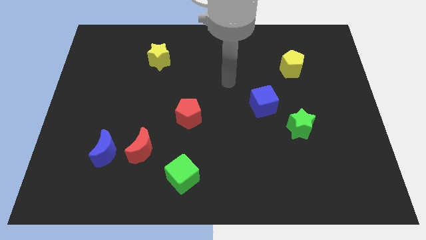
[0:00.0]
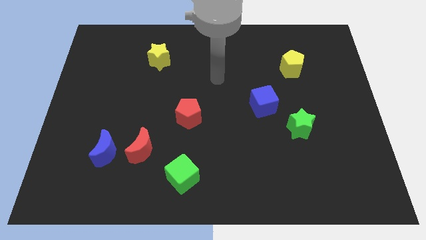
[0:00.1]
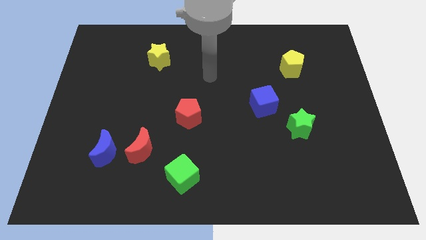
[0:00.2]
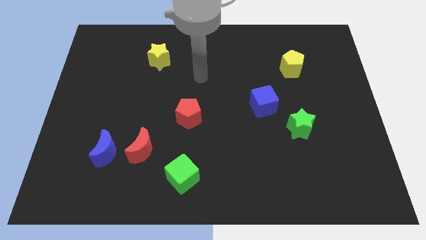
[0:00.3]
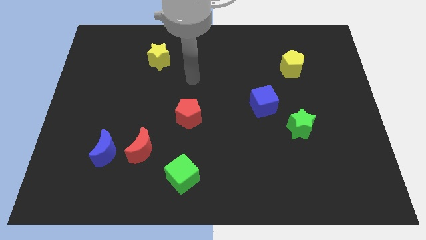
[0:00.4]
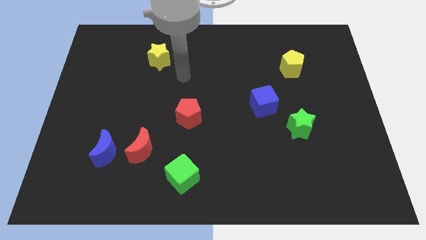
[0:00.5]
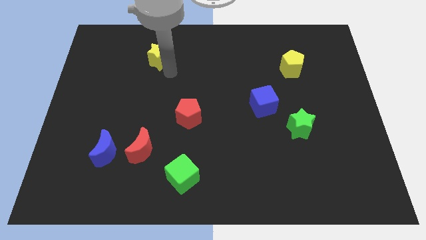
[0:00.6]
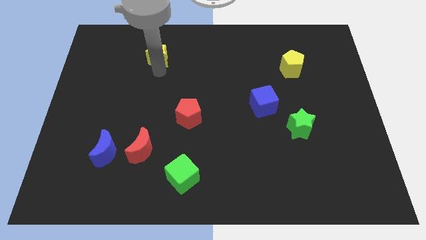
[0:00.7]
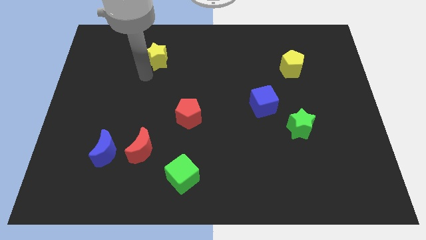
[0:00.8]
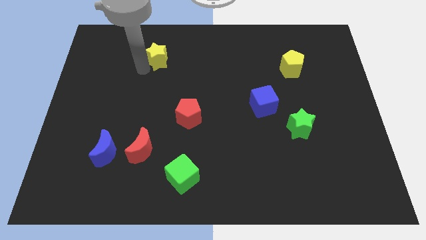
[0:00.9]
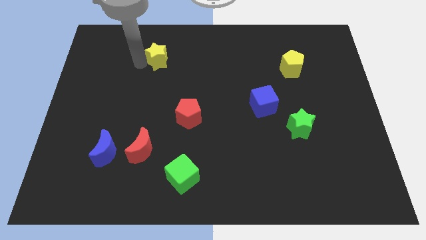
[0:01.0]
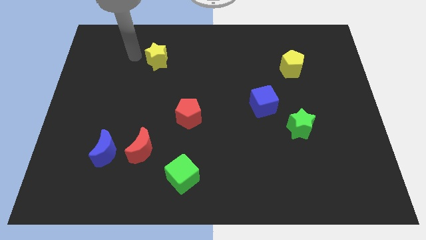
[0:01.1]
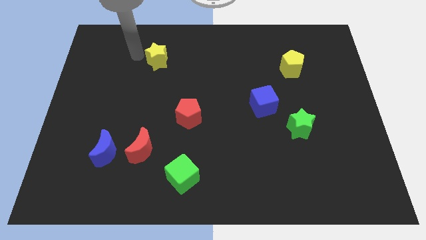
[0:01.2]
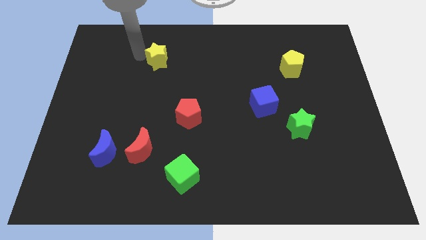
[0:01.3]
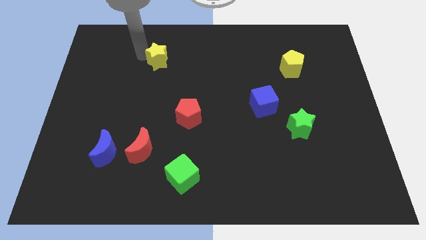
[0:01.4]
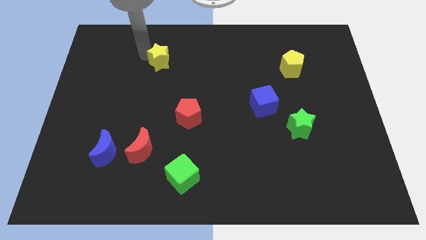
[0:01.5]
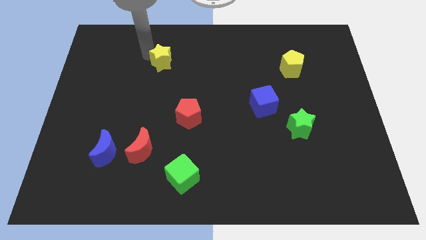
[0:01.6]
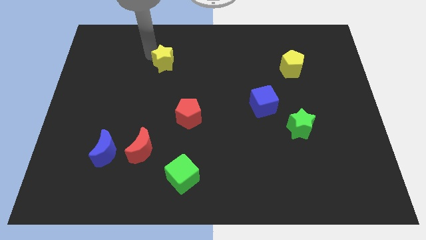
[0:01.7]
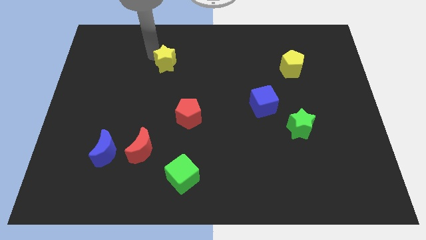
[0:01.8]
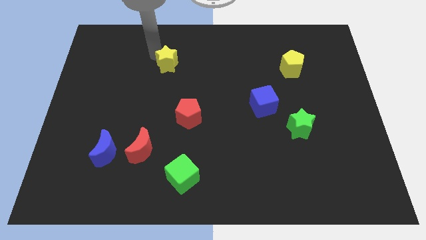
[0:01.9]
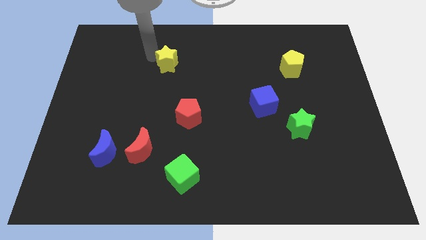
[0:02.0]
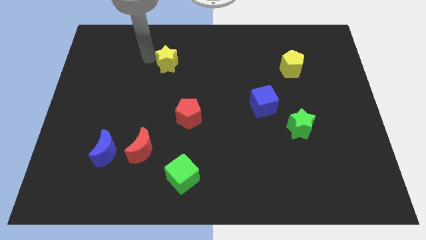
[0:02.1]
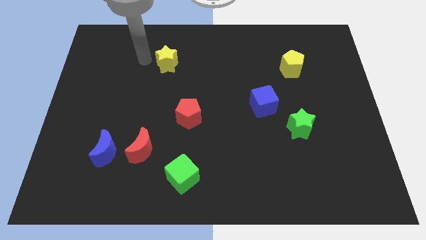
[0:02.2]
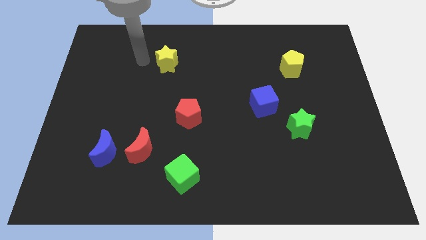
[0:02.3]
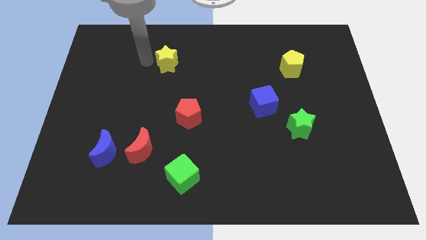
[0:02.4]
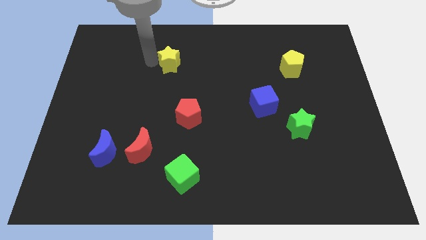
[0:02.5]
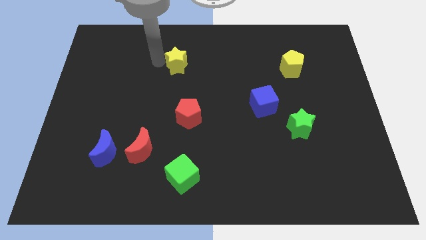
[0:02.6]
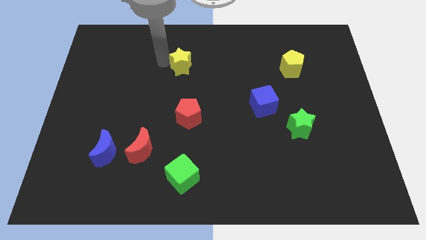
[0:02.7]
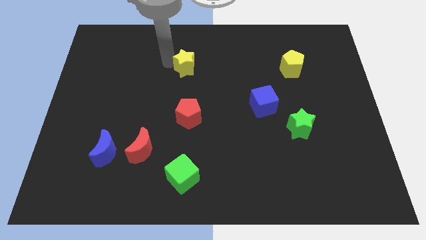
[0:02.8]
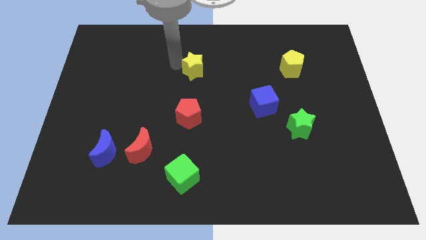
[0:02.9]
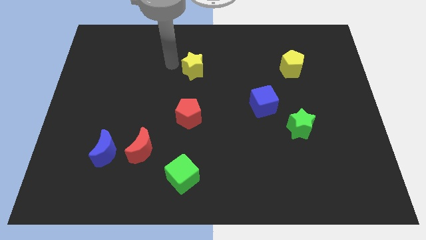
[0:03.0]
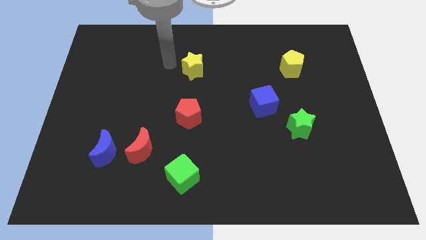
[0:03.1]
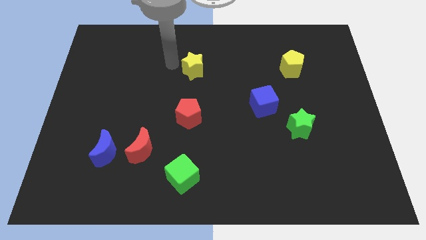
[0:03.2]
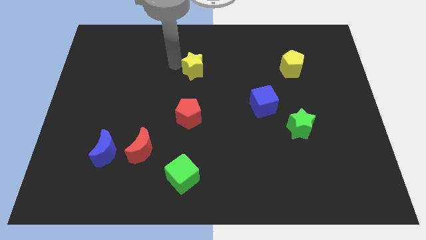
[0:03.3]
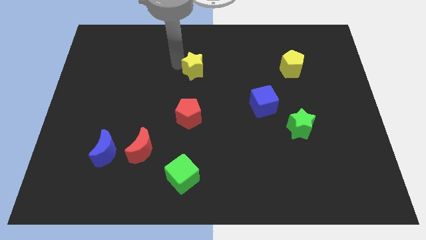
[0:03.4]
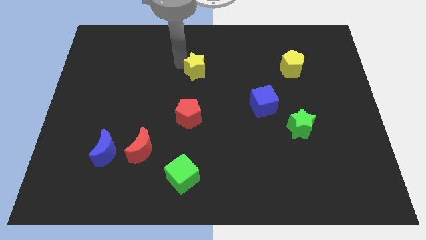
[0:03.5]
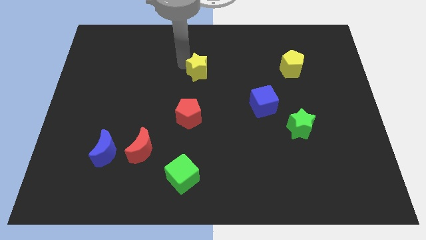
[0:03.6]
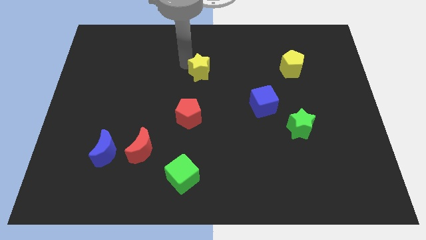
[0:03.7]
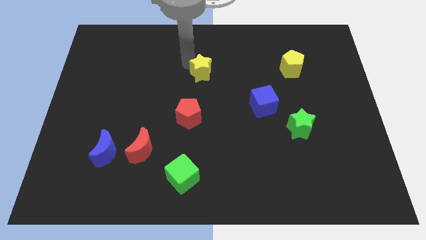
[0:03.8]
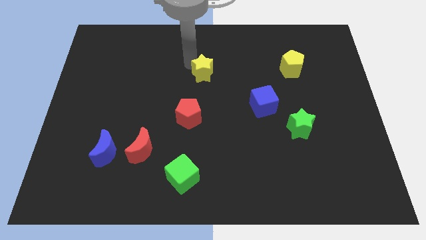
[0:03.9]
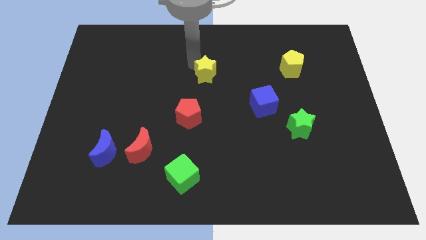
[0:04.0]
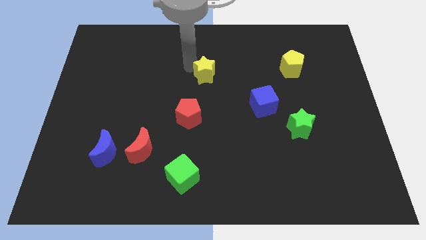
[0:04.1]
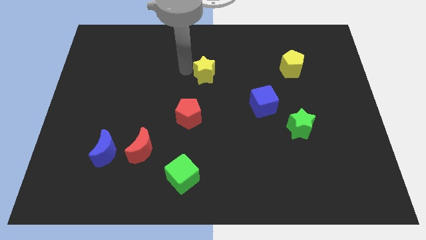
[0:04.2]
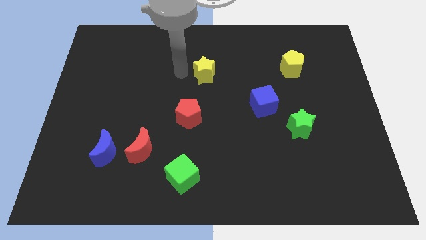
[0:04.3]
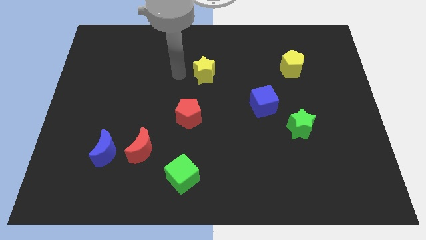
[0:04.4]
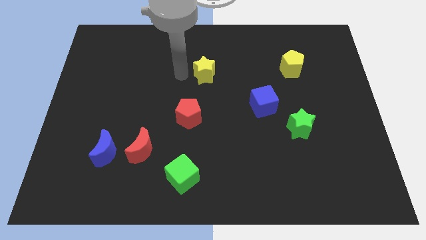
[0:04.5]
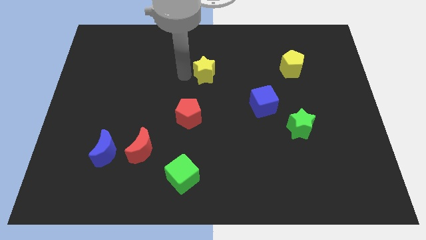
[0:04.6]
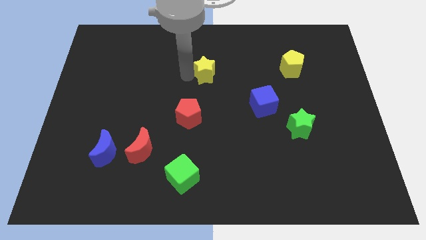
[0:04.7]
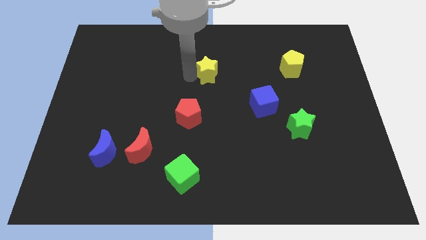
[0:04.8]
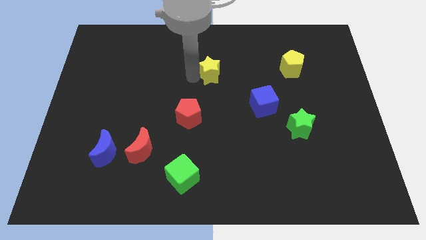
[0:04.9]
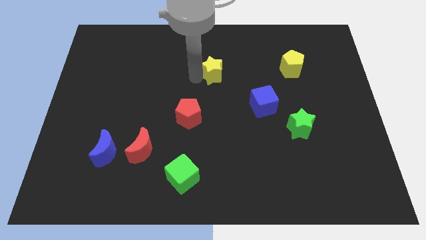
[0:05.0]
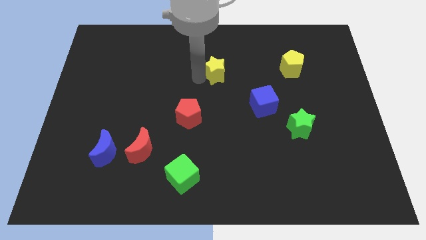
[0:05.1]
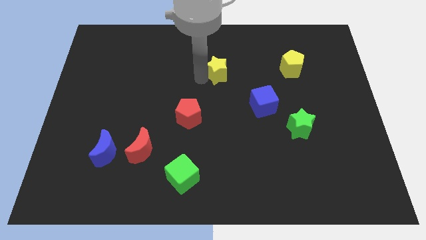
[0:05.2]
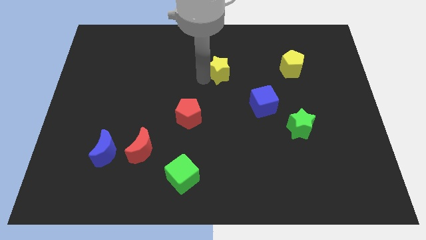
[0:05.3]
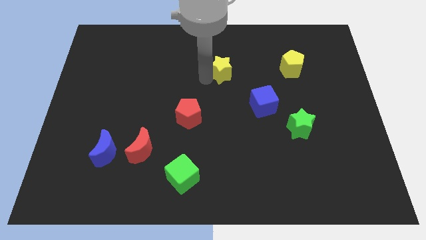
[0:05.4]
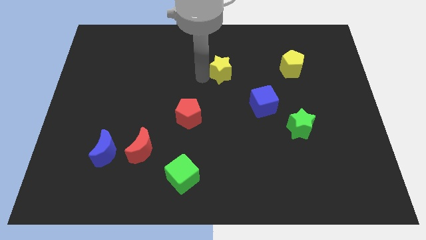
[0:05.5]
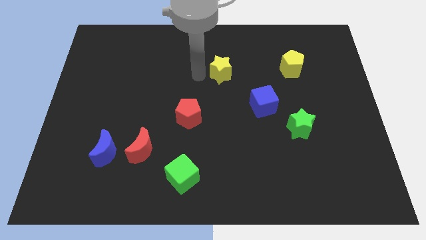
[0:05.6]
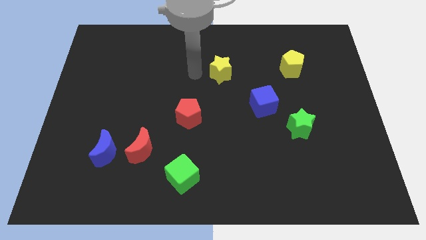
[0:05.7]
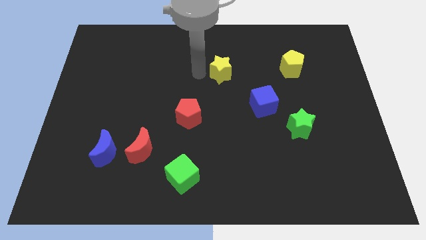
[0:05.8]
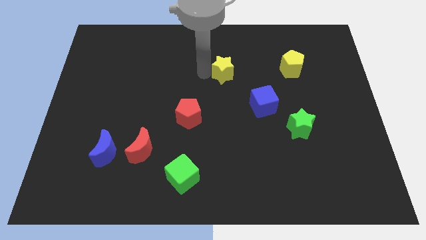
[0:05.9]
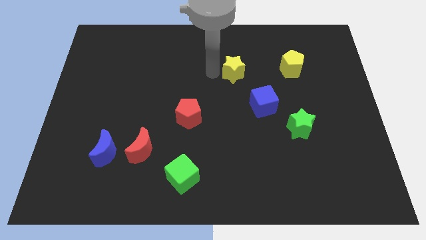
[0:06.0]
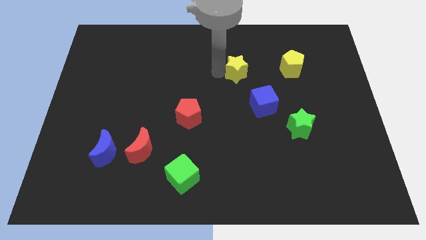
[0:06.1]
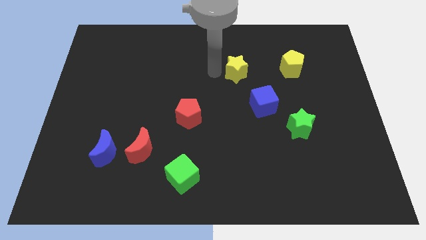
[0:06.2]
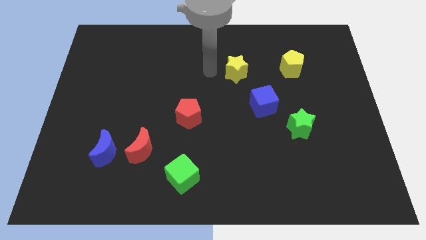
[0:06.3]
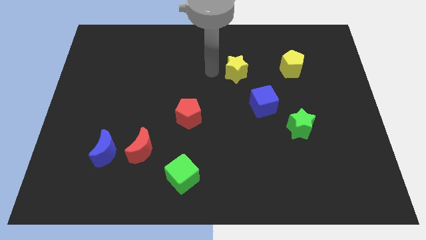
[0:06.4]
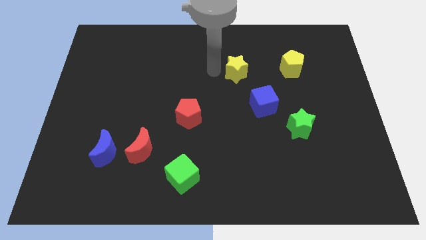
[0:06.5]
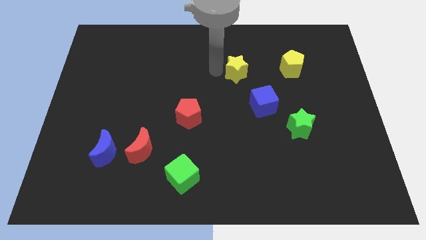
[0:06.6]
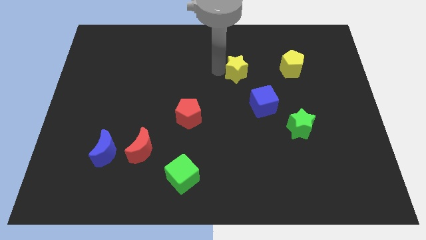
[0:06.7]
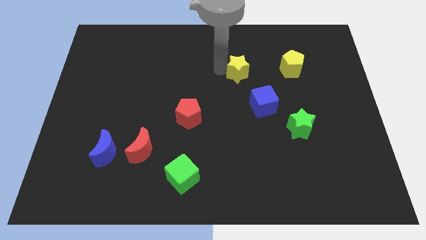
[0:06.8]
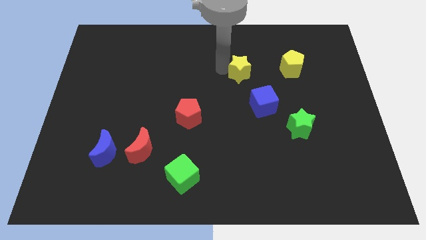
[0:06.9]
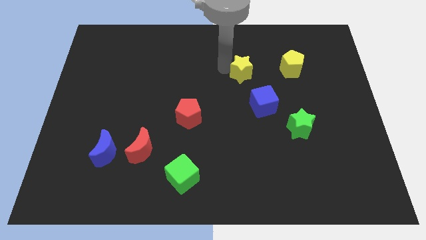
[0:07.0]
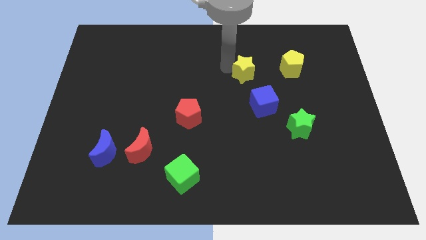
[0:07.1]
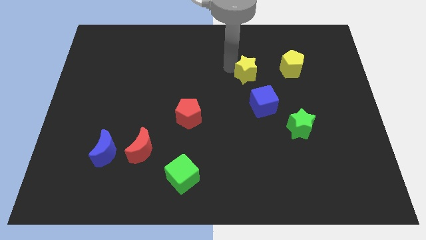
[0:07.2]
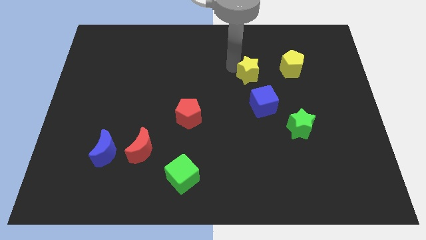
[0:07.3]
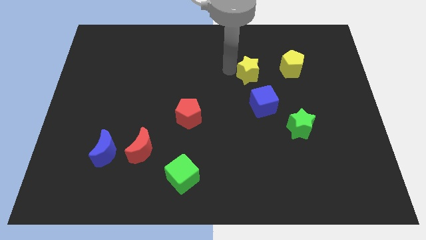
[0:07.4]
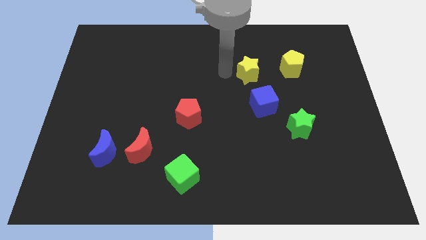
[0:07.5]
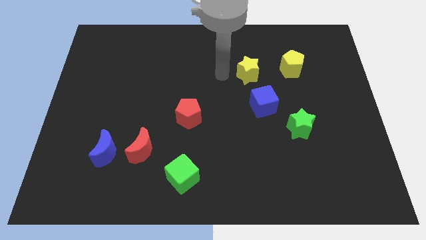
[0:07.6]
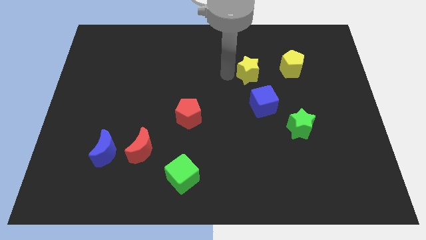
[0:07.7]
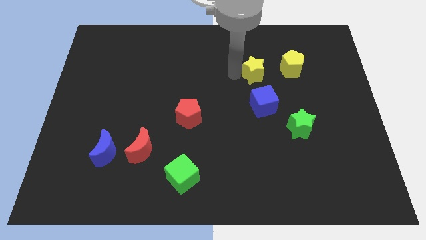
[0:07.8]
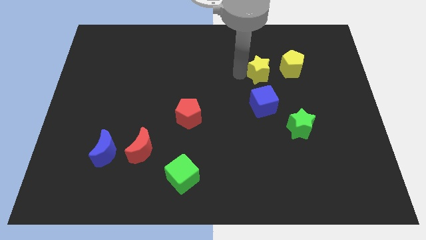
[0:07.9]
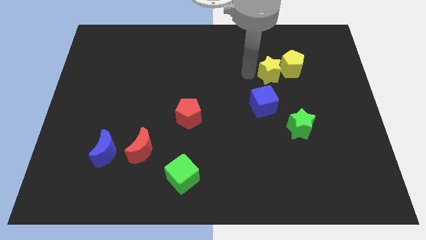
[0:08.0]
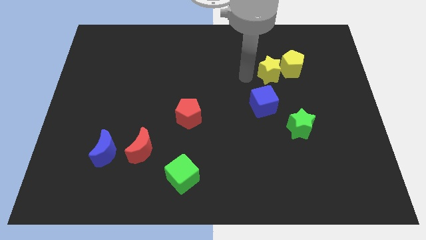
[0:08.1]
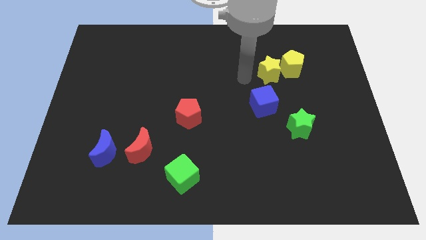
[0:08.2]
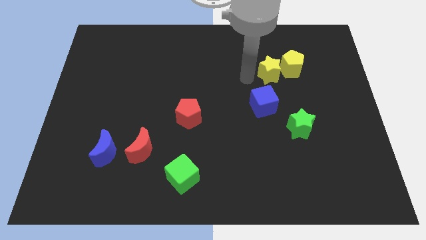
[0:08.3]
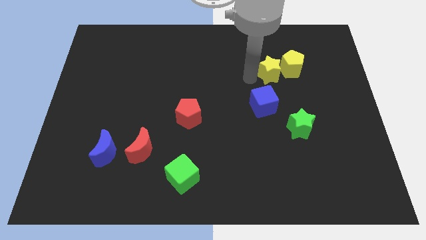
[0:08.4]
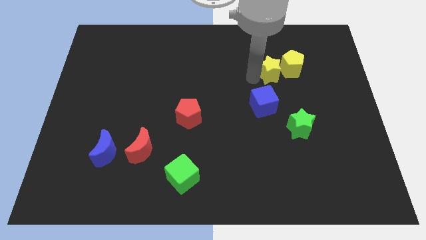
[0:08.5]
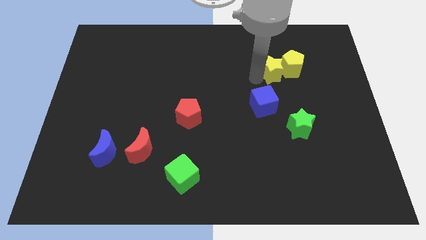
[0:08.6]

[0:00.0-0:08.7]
move the yellow star towards the yellow pentagon
